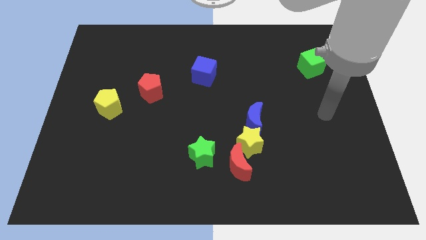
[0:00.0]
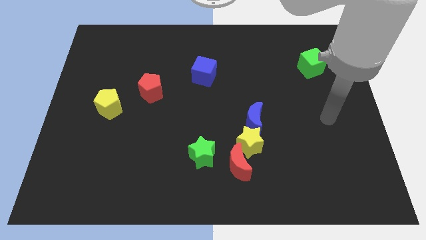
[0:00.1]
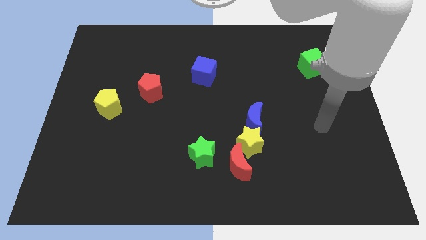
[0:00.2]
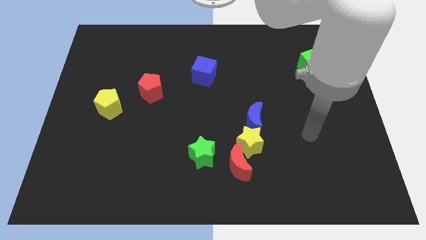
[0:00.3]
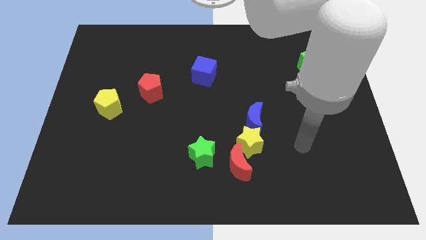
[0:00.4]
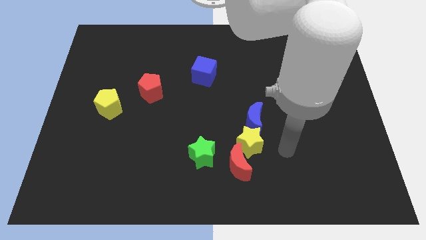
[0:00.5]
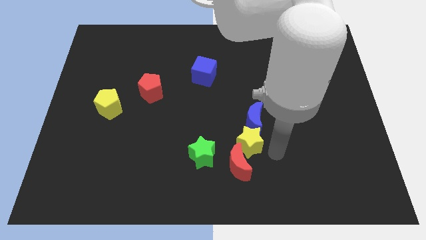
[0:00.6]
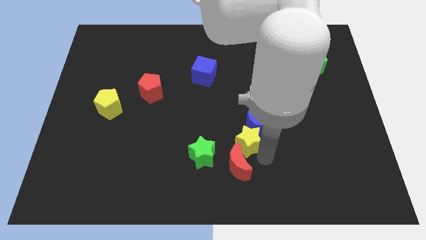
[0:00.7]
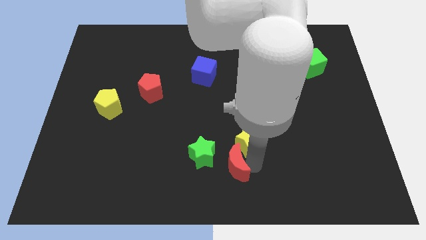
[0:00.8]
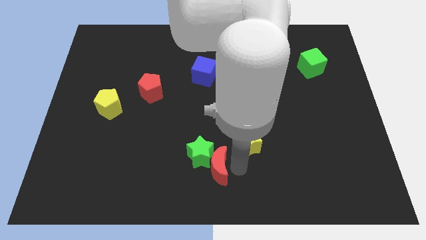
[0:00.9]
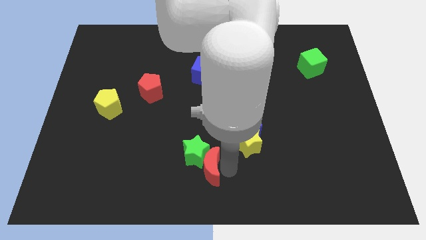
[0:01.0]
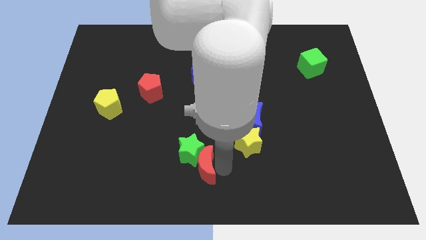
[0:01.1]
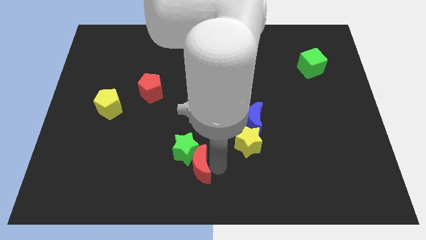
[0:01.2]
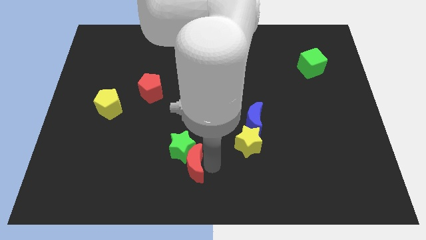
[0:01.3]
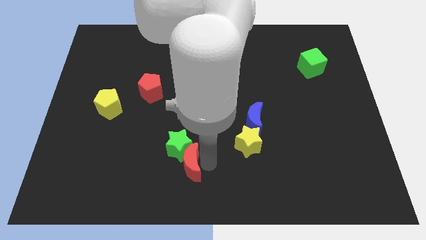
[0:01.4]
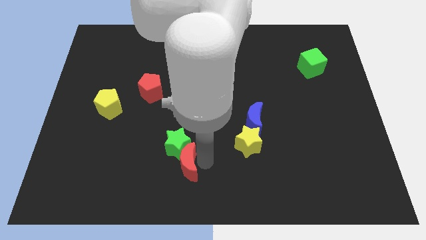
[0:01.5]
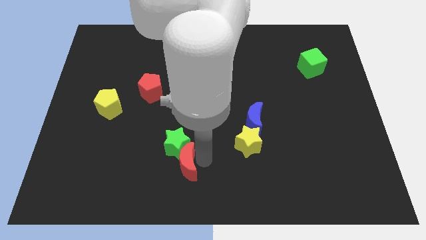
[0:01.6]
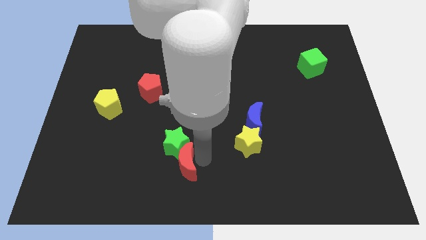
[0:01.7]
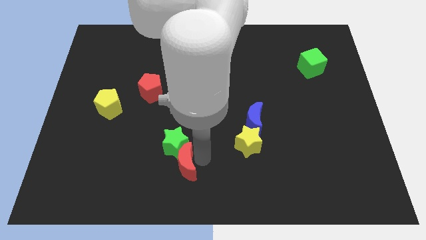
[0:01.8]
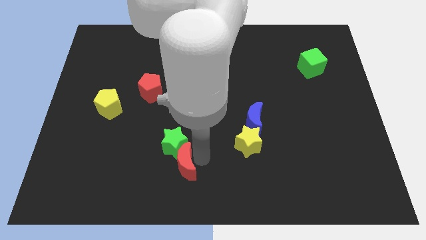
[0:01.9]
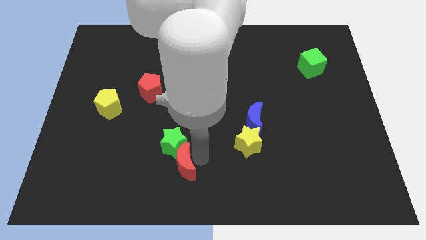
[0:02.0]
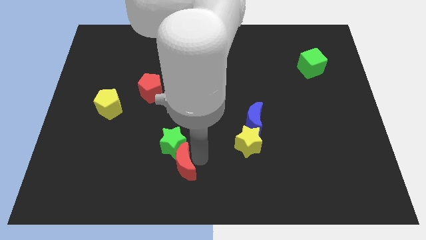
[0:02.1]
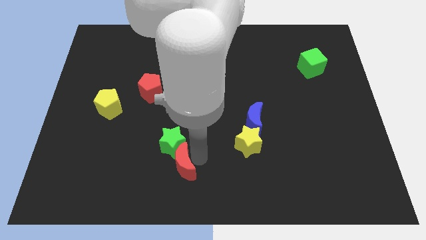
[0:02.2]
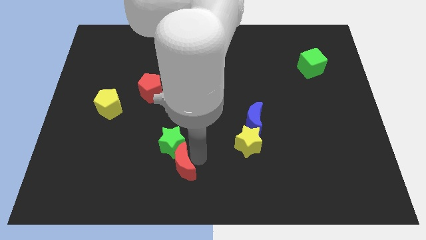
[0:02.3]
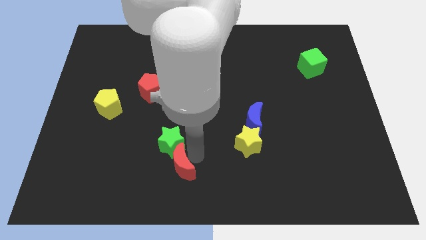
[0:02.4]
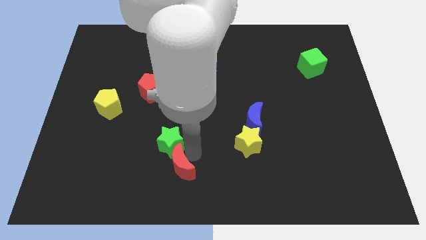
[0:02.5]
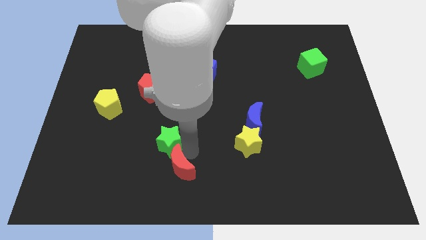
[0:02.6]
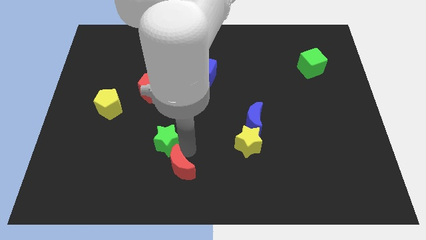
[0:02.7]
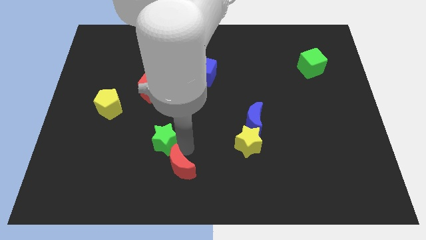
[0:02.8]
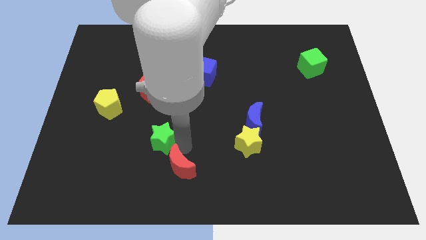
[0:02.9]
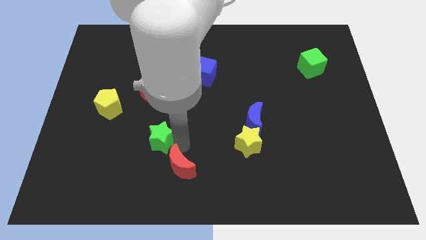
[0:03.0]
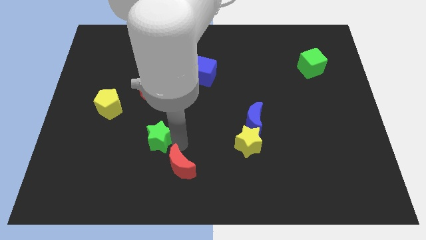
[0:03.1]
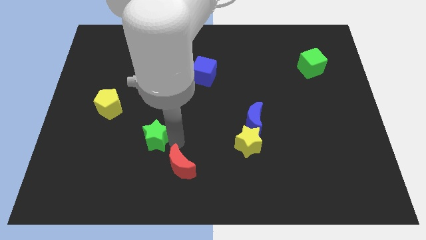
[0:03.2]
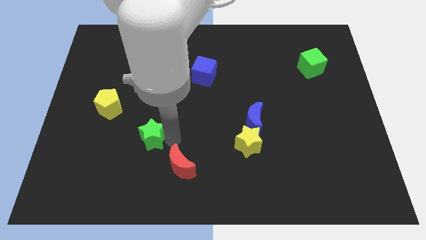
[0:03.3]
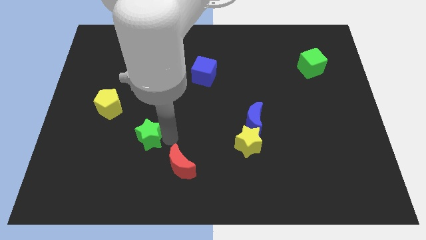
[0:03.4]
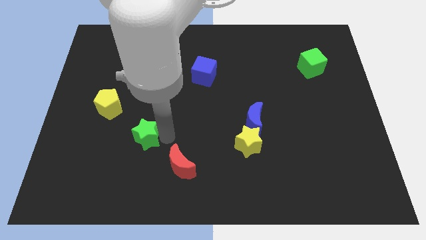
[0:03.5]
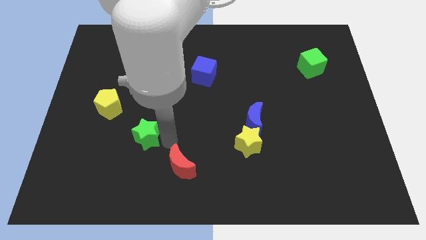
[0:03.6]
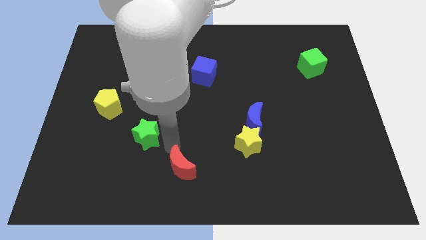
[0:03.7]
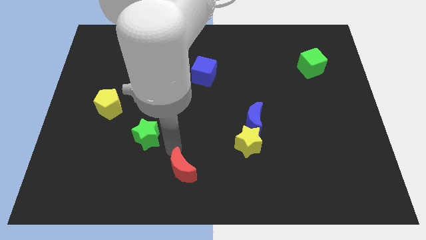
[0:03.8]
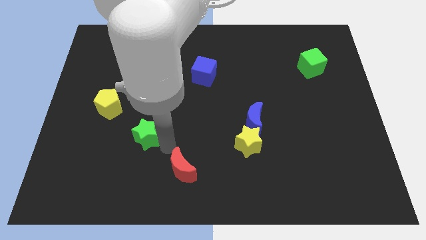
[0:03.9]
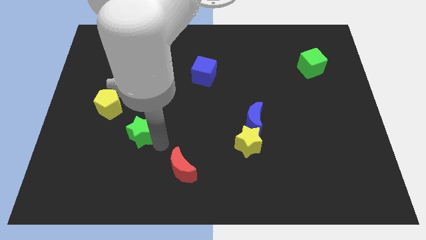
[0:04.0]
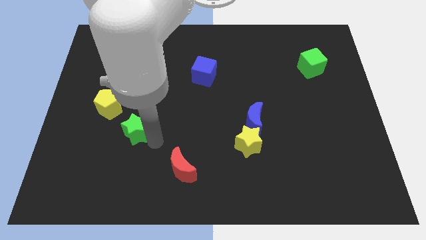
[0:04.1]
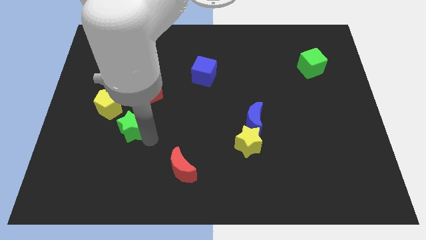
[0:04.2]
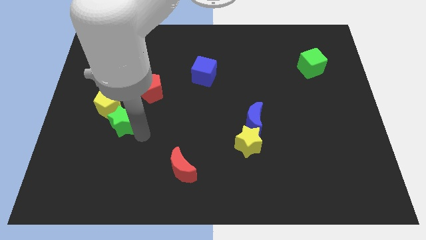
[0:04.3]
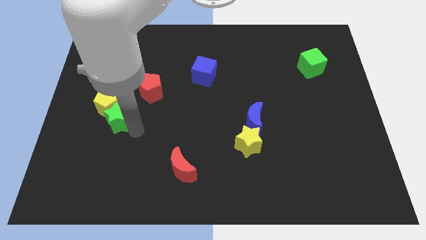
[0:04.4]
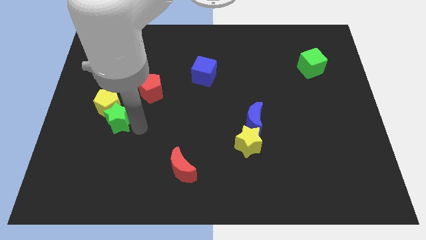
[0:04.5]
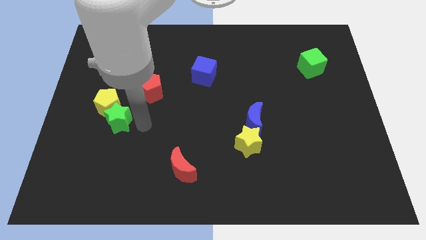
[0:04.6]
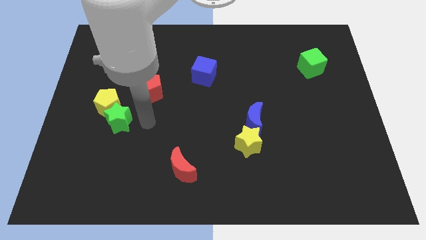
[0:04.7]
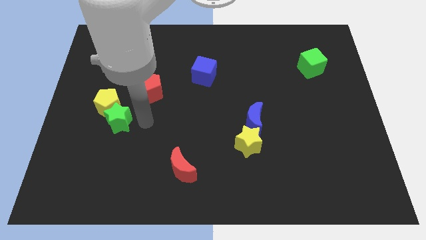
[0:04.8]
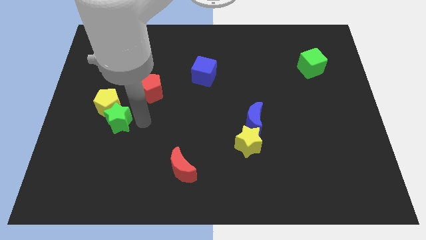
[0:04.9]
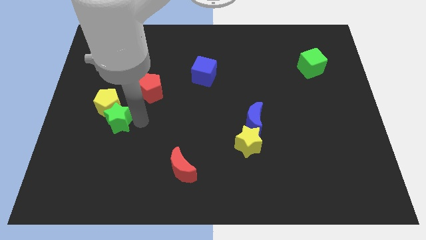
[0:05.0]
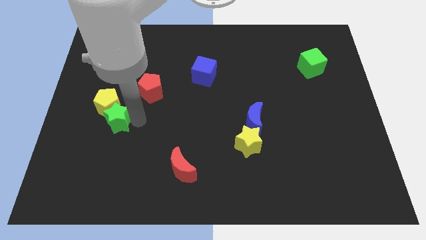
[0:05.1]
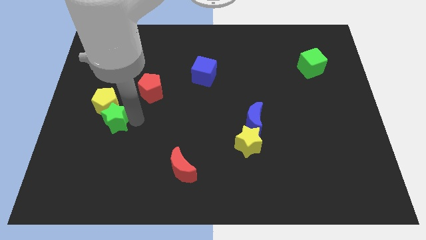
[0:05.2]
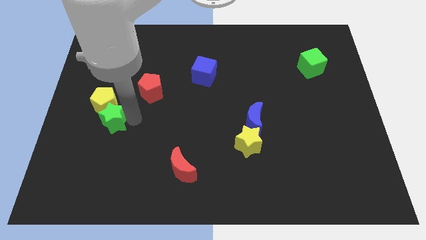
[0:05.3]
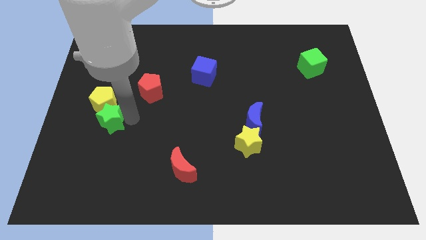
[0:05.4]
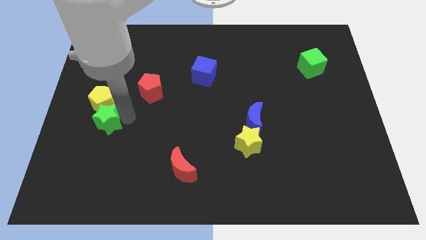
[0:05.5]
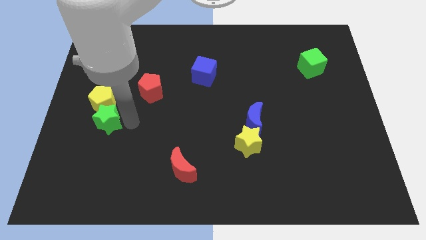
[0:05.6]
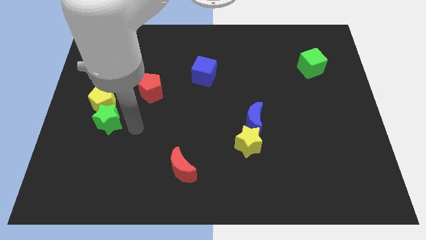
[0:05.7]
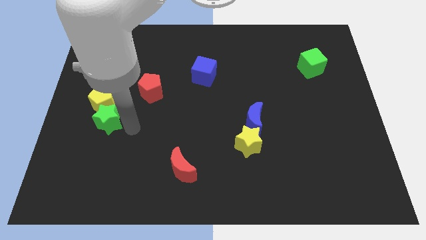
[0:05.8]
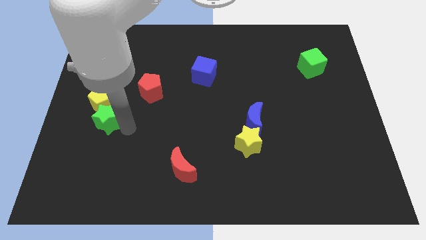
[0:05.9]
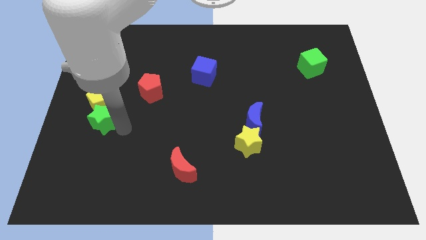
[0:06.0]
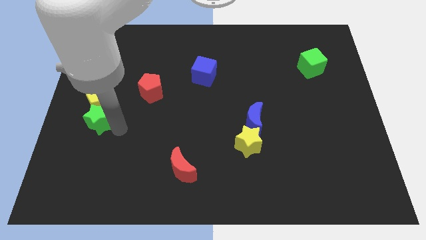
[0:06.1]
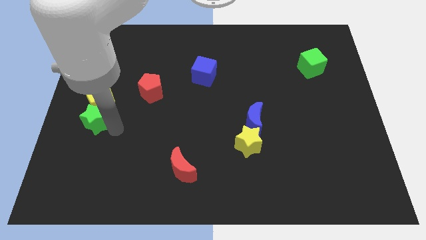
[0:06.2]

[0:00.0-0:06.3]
move the green star to the left side
